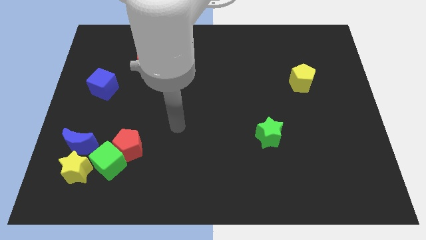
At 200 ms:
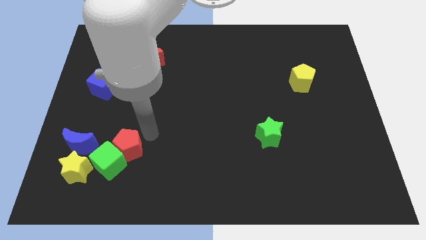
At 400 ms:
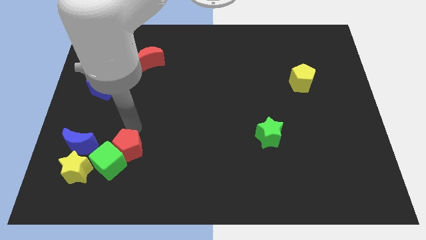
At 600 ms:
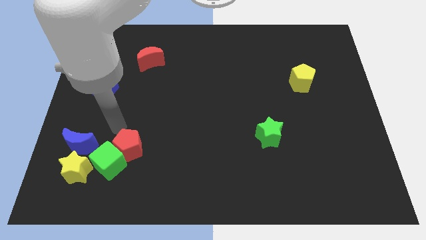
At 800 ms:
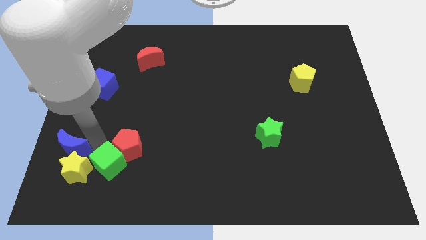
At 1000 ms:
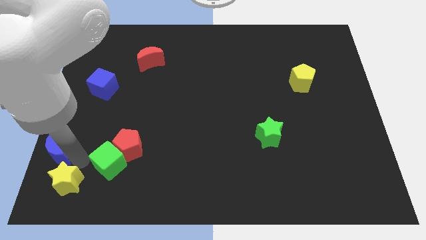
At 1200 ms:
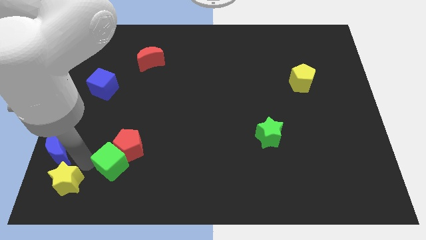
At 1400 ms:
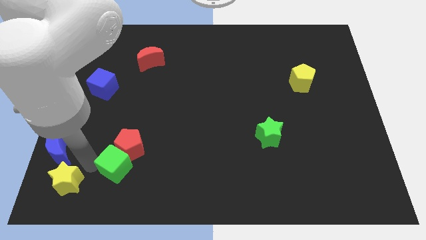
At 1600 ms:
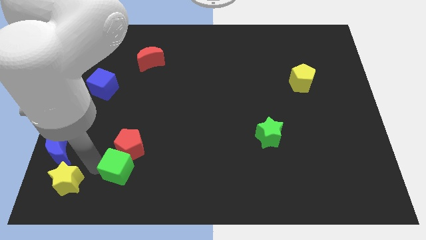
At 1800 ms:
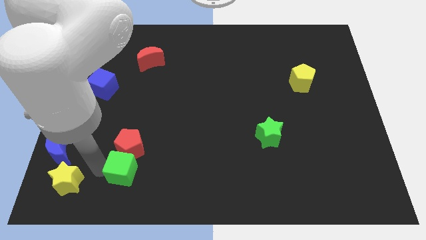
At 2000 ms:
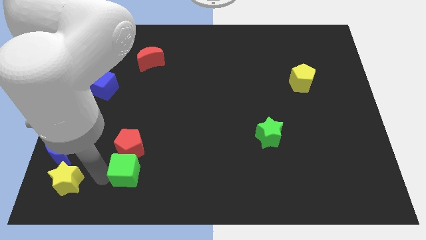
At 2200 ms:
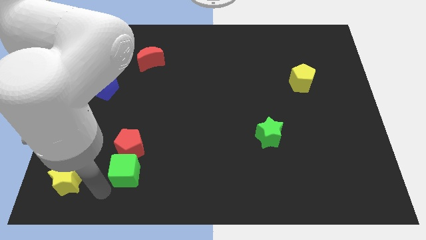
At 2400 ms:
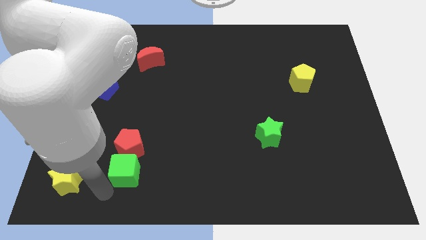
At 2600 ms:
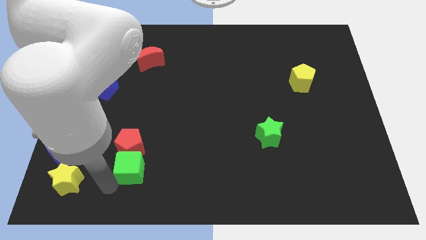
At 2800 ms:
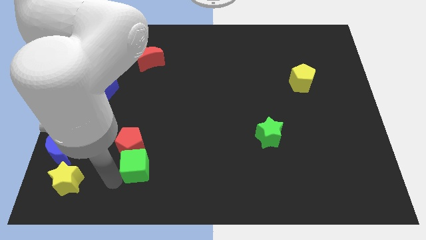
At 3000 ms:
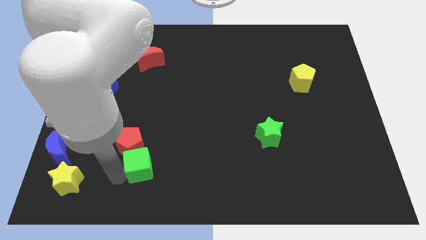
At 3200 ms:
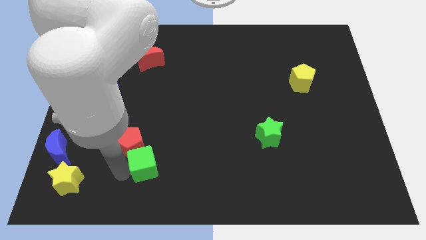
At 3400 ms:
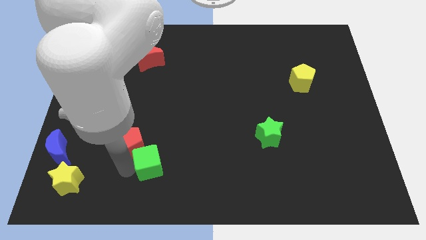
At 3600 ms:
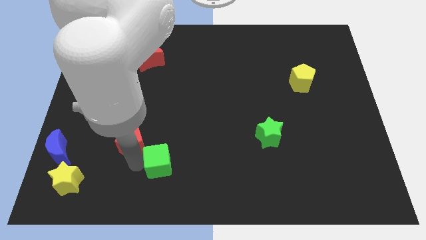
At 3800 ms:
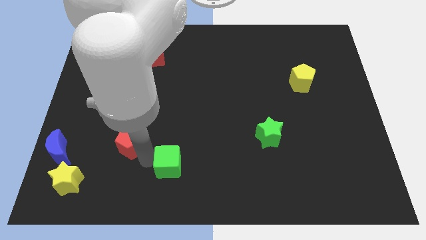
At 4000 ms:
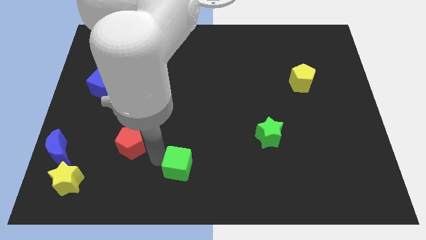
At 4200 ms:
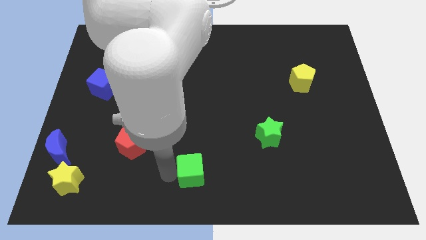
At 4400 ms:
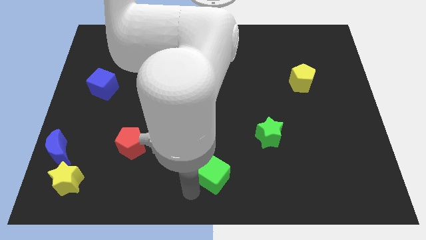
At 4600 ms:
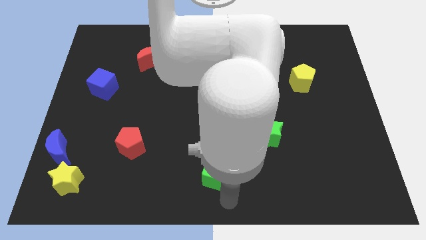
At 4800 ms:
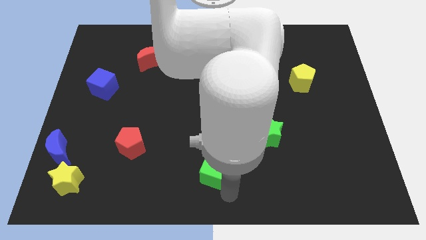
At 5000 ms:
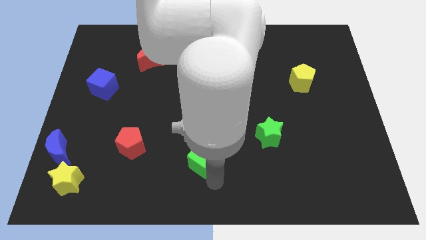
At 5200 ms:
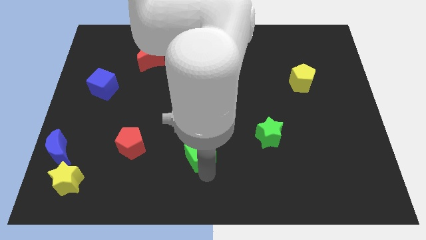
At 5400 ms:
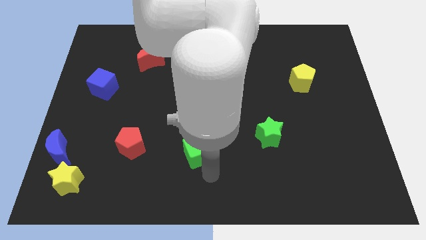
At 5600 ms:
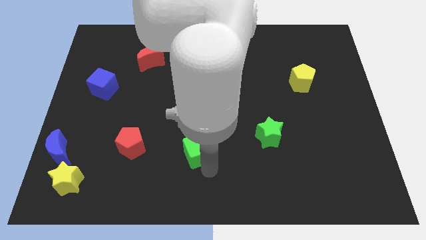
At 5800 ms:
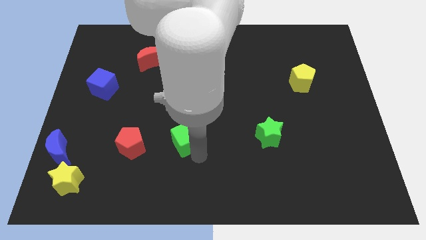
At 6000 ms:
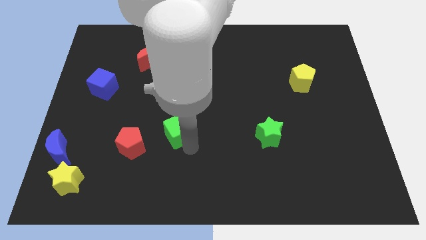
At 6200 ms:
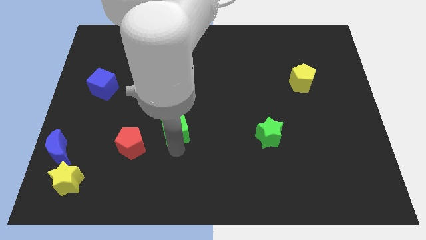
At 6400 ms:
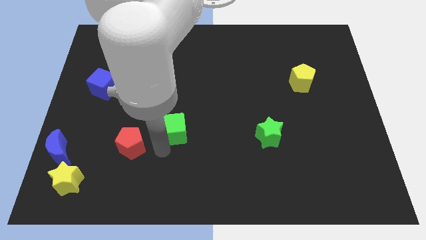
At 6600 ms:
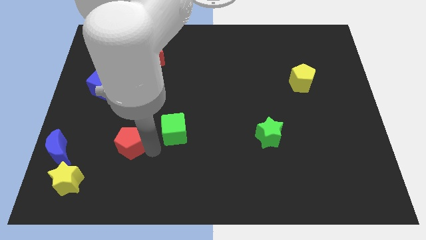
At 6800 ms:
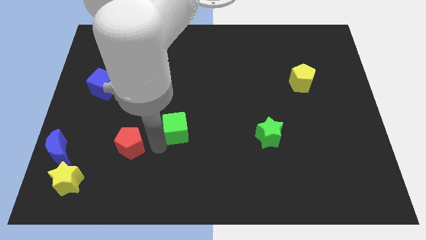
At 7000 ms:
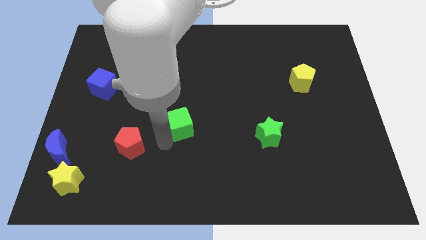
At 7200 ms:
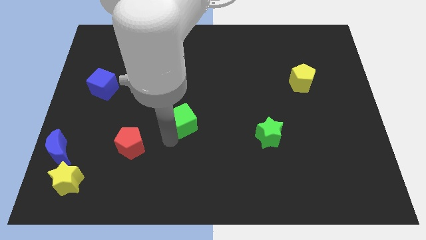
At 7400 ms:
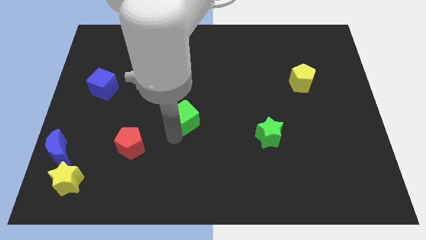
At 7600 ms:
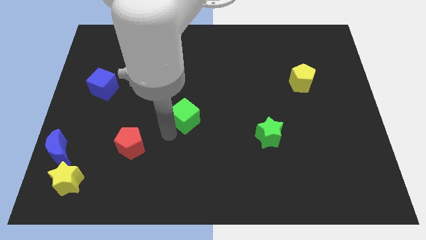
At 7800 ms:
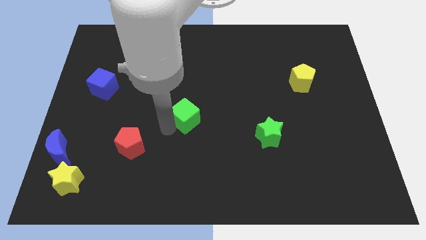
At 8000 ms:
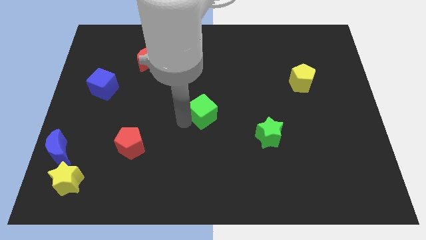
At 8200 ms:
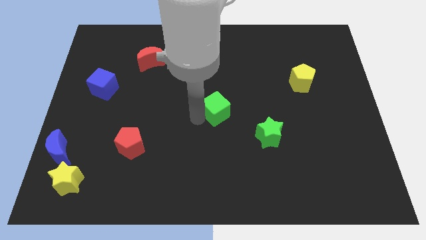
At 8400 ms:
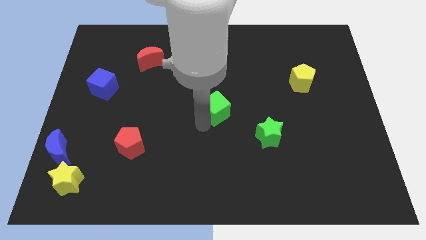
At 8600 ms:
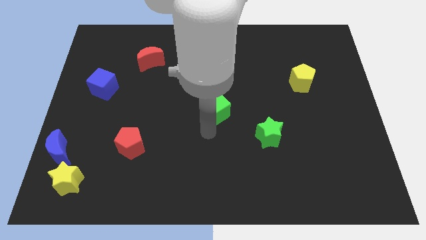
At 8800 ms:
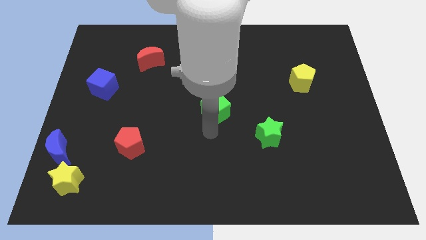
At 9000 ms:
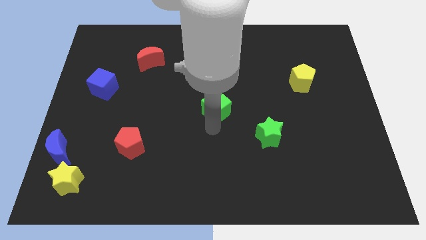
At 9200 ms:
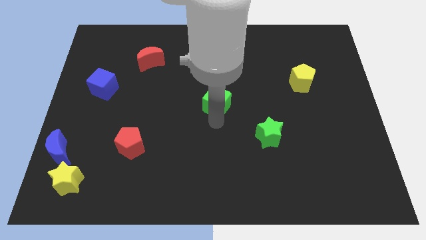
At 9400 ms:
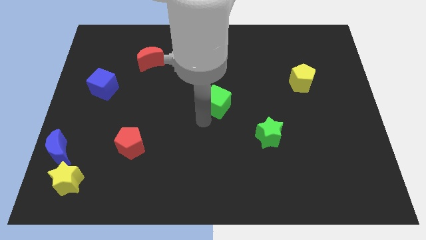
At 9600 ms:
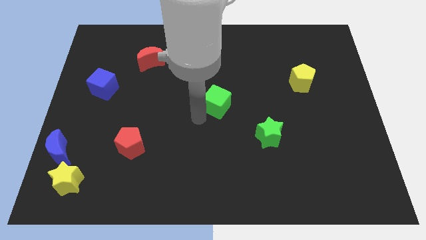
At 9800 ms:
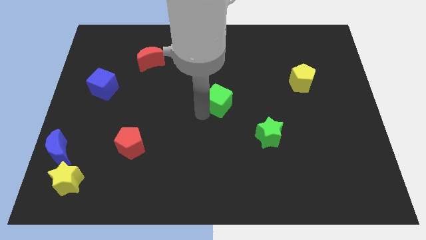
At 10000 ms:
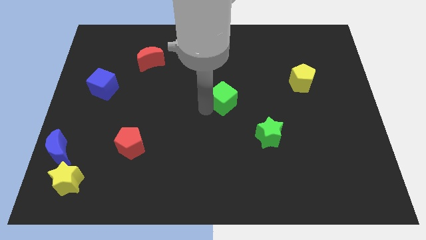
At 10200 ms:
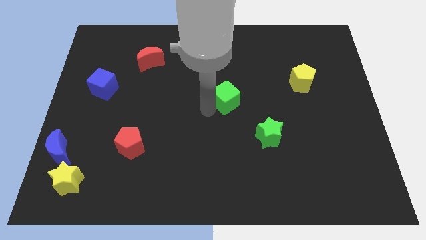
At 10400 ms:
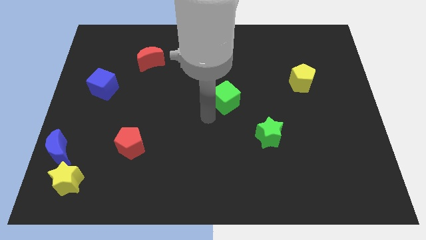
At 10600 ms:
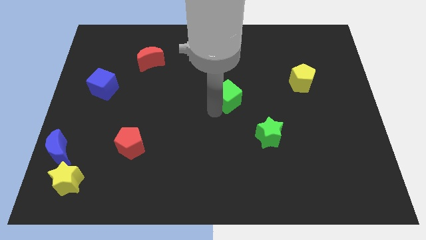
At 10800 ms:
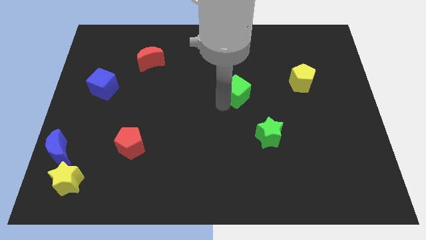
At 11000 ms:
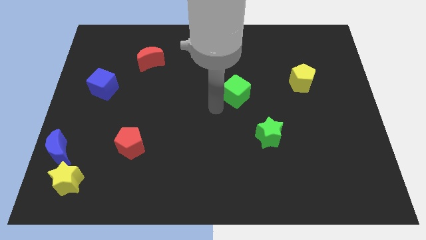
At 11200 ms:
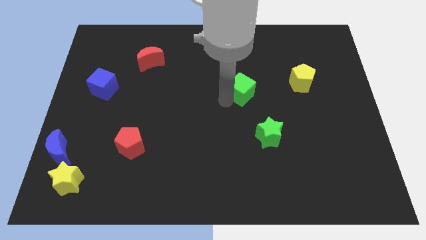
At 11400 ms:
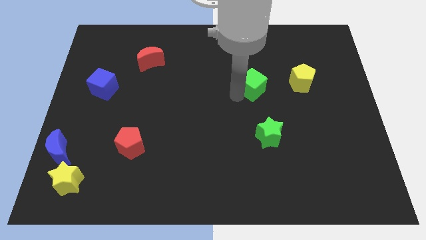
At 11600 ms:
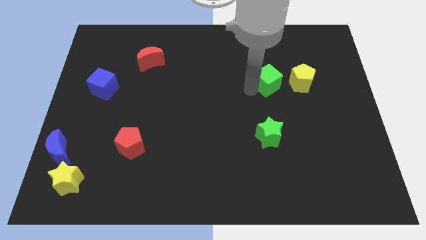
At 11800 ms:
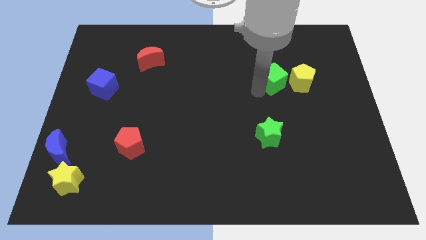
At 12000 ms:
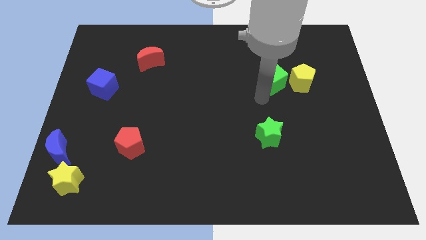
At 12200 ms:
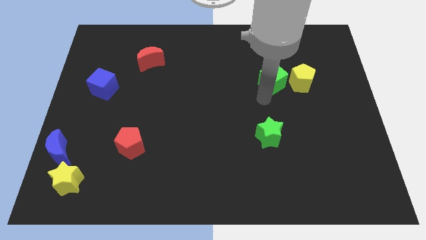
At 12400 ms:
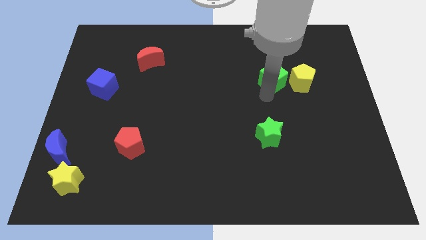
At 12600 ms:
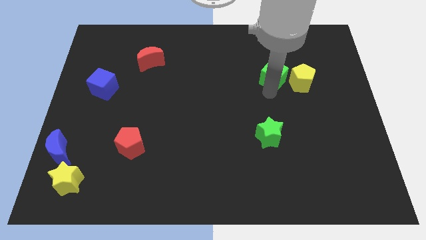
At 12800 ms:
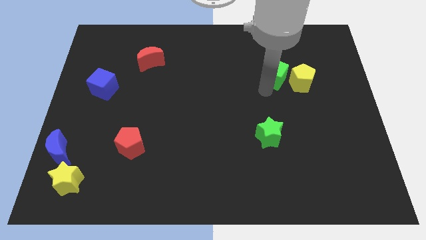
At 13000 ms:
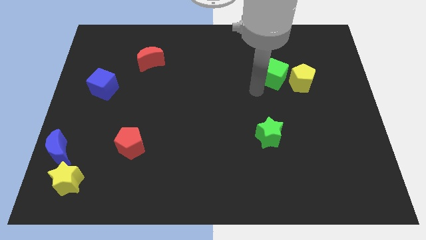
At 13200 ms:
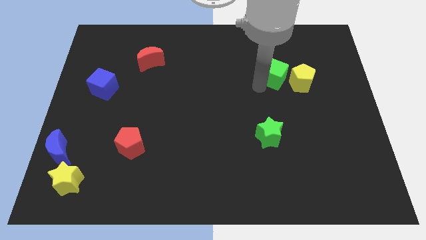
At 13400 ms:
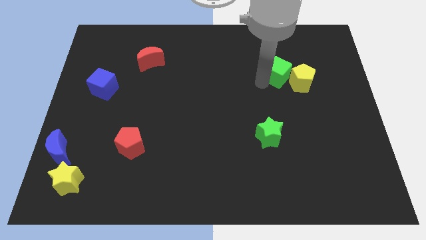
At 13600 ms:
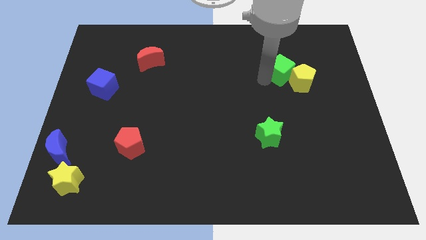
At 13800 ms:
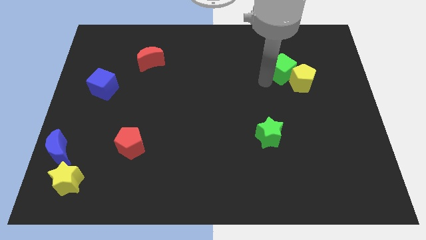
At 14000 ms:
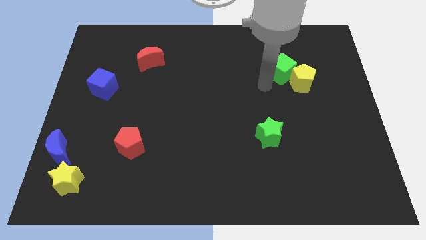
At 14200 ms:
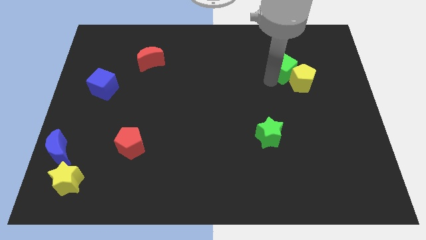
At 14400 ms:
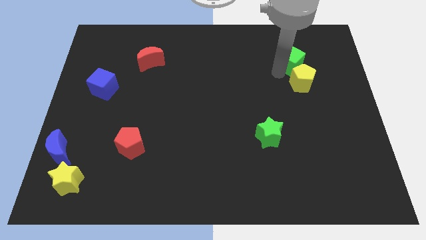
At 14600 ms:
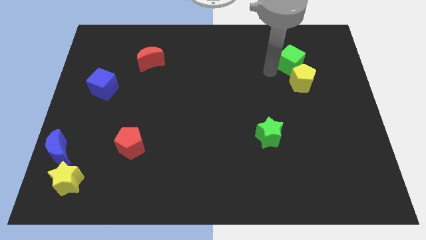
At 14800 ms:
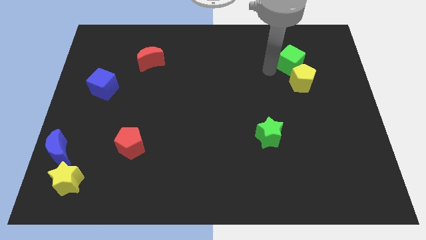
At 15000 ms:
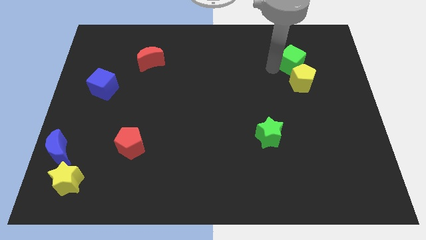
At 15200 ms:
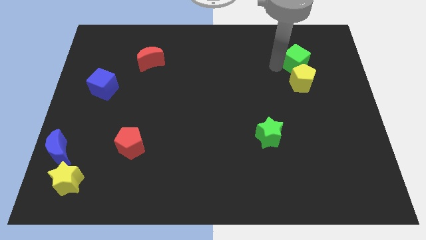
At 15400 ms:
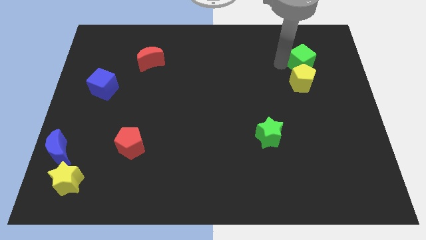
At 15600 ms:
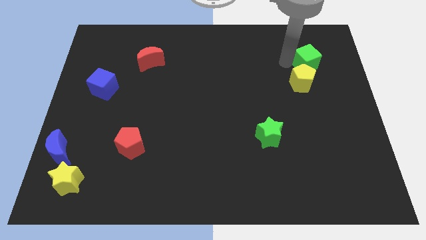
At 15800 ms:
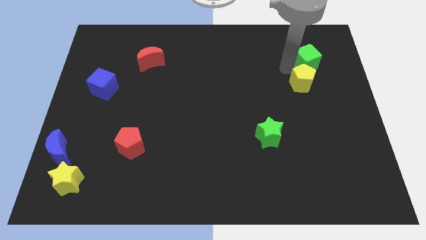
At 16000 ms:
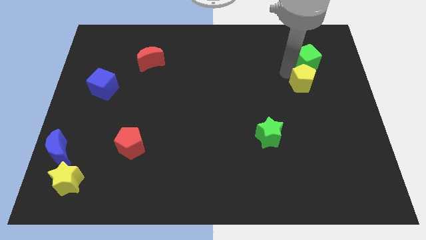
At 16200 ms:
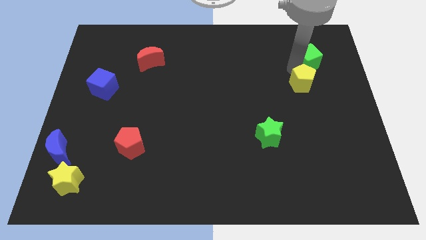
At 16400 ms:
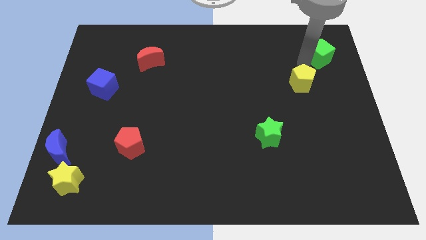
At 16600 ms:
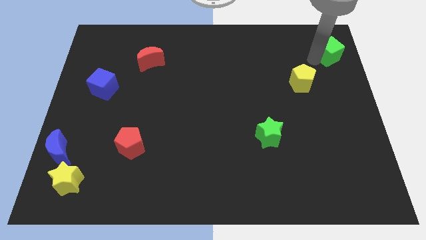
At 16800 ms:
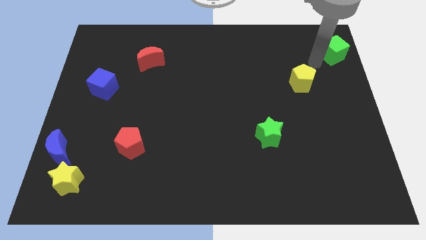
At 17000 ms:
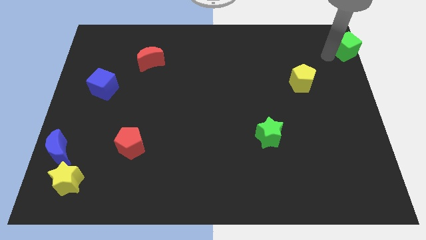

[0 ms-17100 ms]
push the green cube to the top right corner
